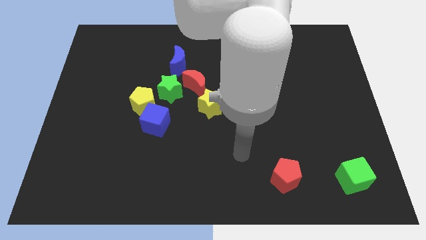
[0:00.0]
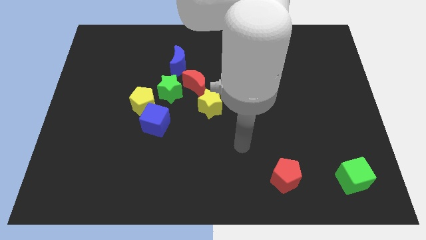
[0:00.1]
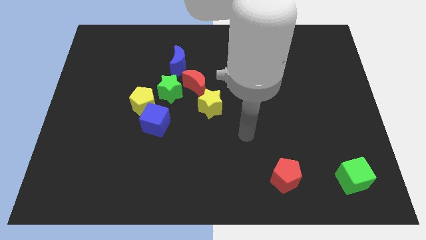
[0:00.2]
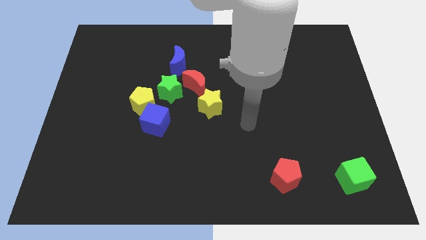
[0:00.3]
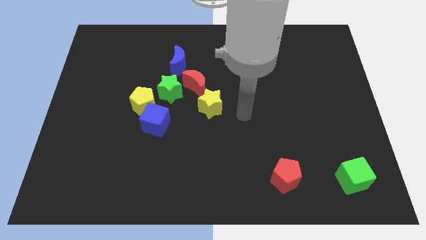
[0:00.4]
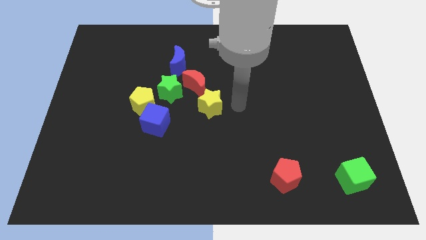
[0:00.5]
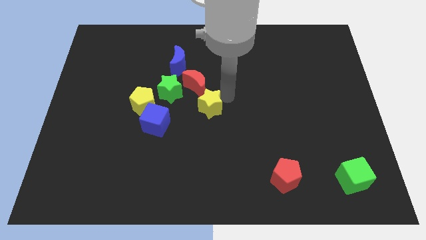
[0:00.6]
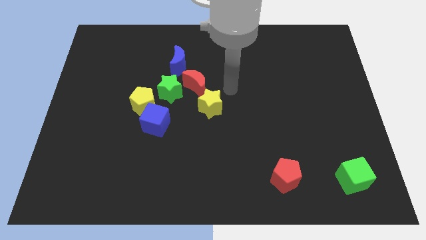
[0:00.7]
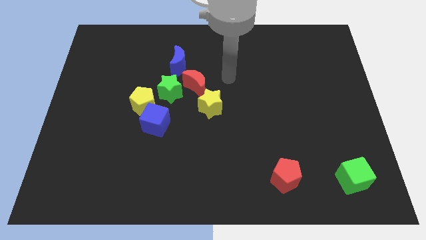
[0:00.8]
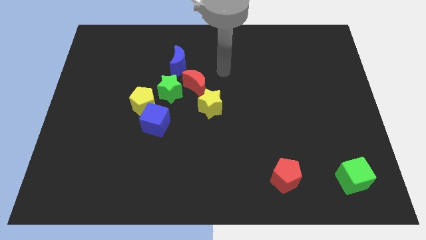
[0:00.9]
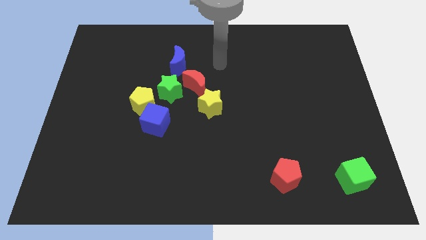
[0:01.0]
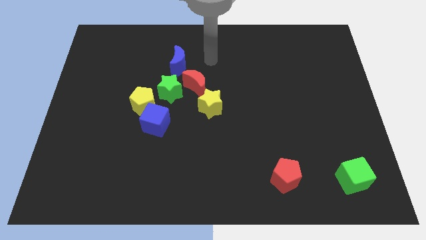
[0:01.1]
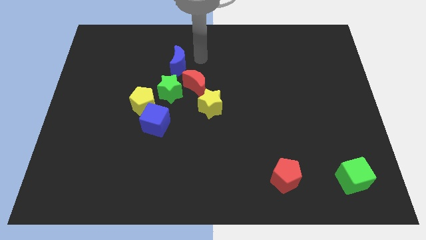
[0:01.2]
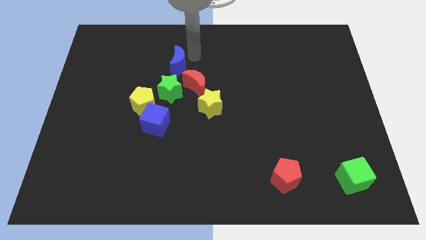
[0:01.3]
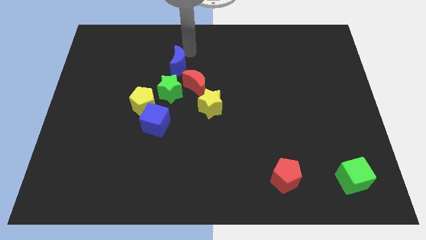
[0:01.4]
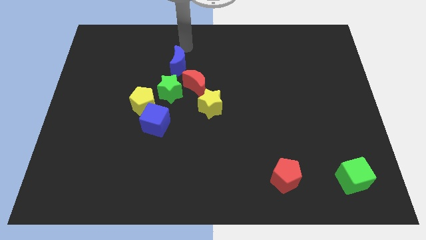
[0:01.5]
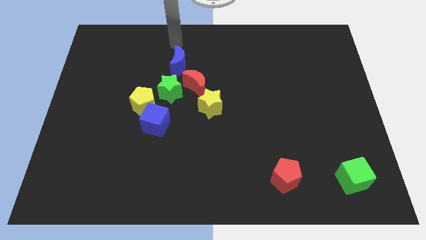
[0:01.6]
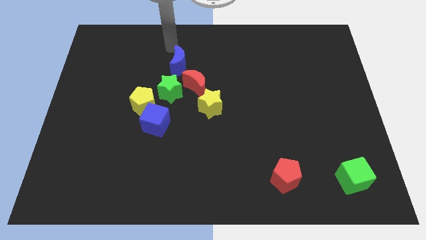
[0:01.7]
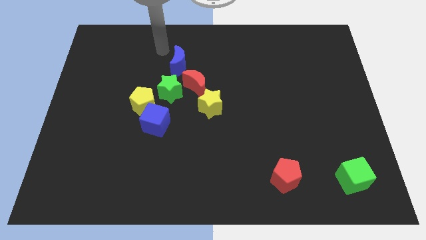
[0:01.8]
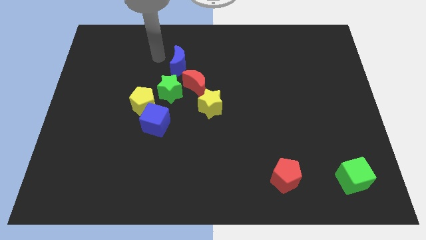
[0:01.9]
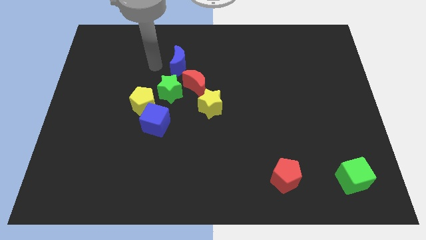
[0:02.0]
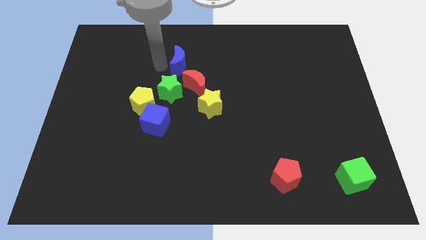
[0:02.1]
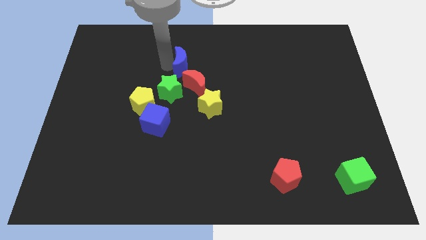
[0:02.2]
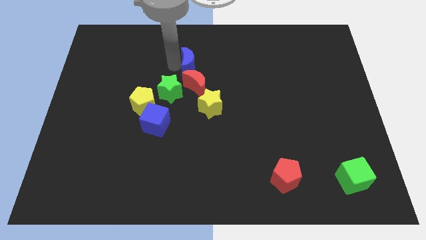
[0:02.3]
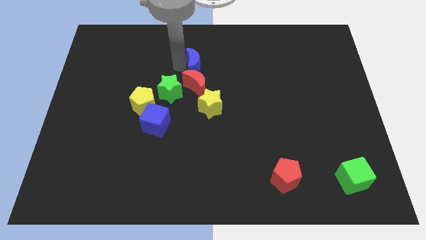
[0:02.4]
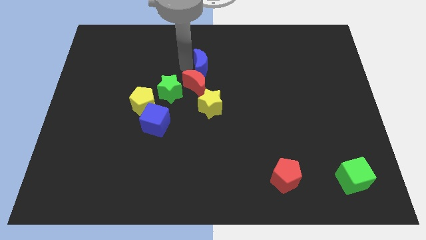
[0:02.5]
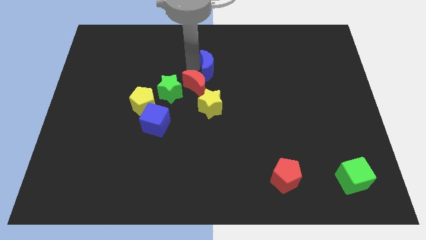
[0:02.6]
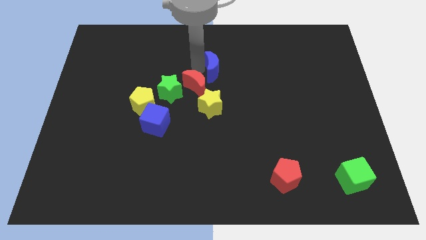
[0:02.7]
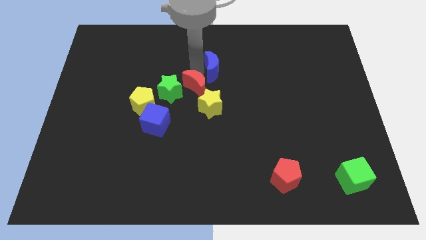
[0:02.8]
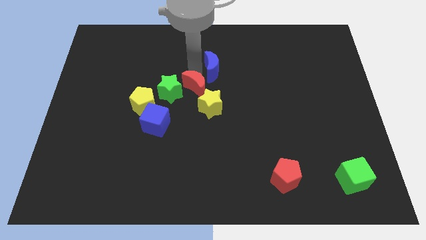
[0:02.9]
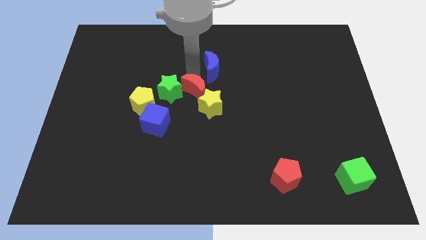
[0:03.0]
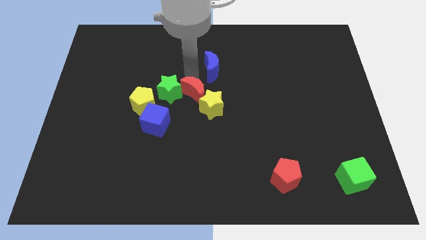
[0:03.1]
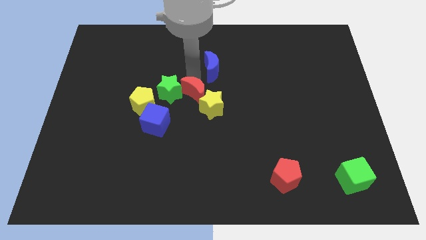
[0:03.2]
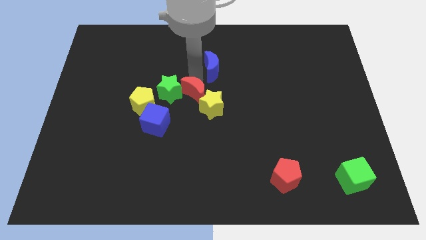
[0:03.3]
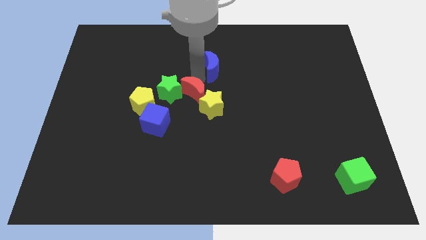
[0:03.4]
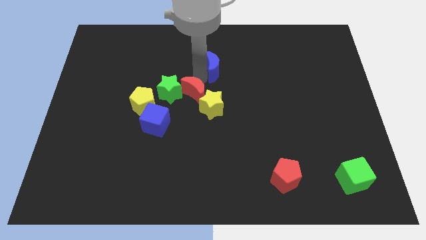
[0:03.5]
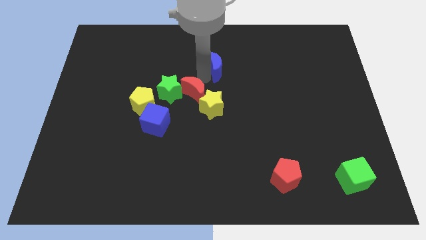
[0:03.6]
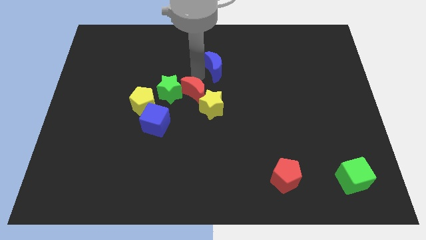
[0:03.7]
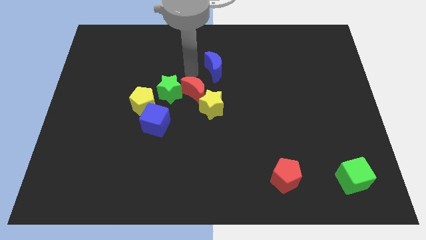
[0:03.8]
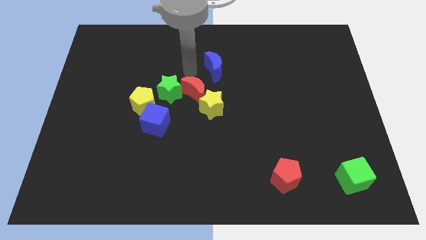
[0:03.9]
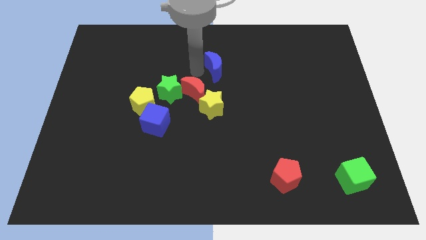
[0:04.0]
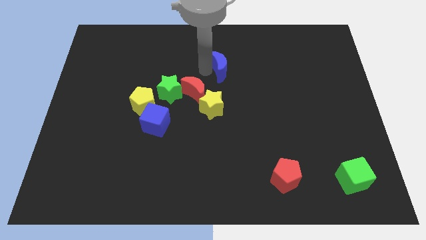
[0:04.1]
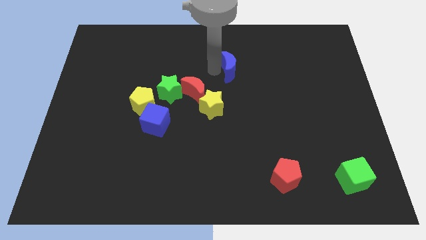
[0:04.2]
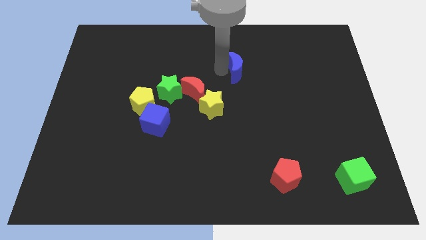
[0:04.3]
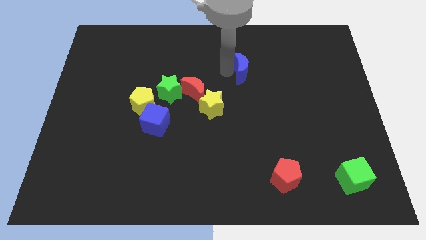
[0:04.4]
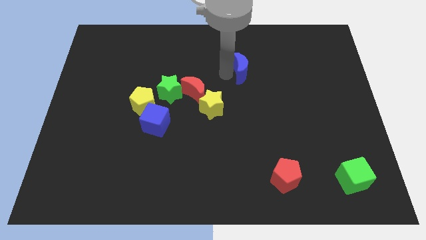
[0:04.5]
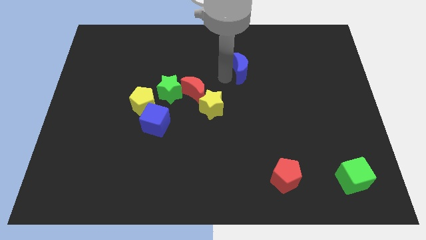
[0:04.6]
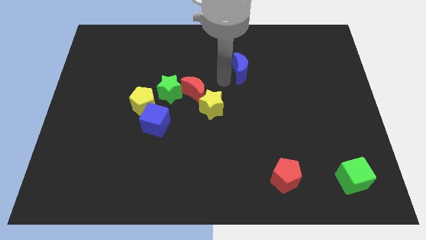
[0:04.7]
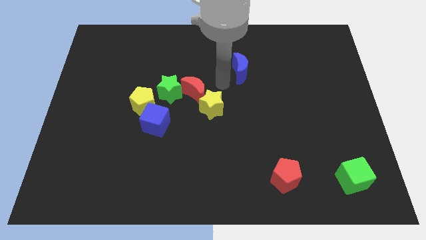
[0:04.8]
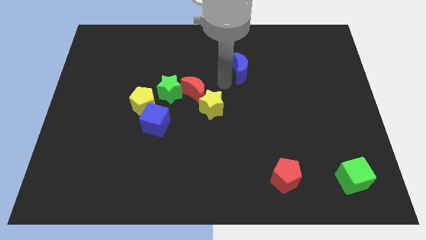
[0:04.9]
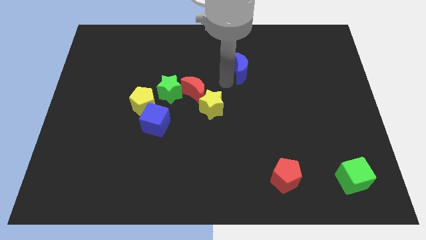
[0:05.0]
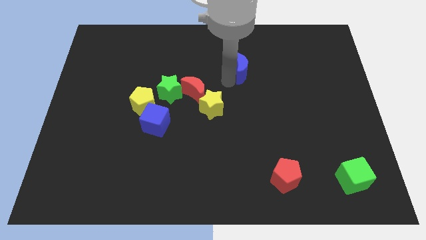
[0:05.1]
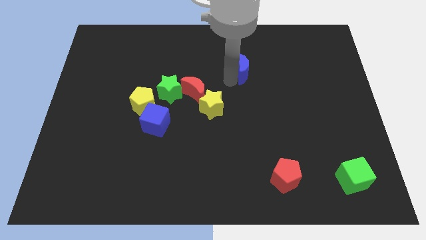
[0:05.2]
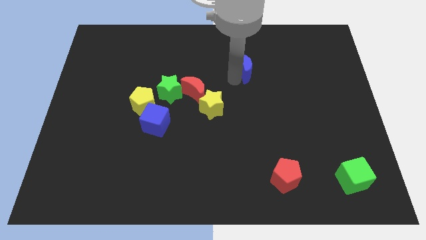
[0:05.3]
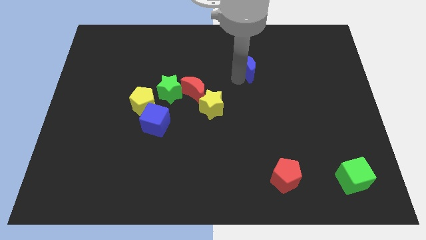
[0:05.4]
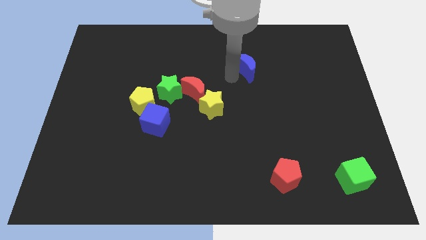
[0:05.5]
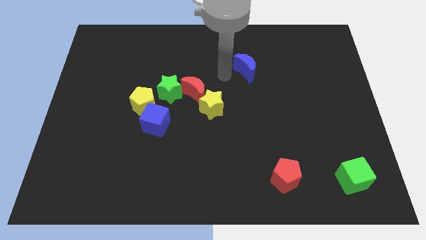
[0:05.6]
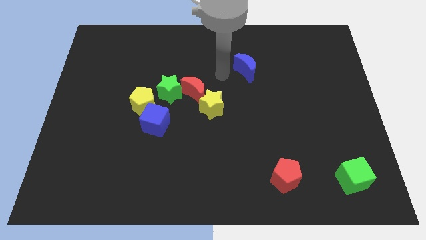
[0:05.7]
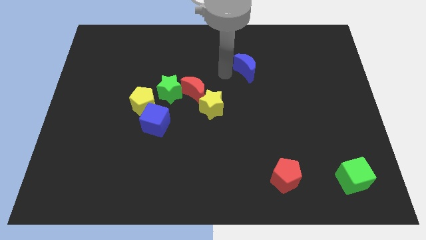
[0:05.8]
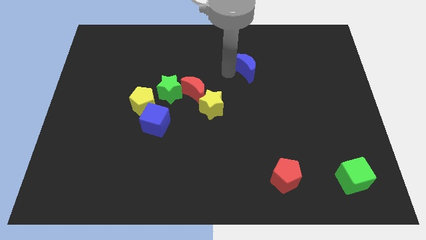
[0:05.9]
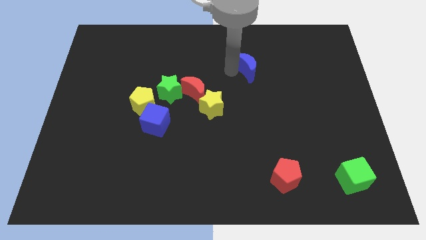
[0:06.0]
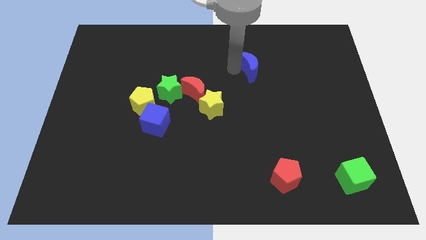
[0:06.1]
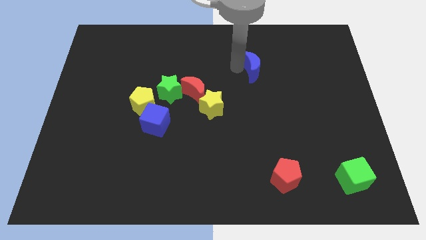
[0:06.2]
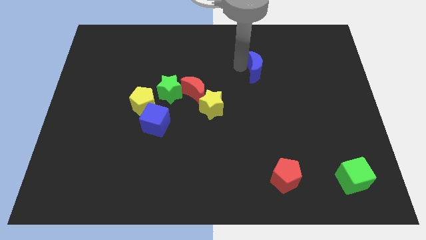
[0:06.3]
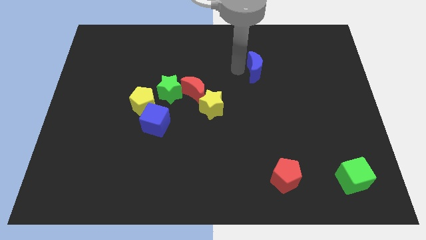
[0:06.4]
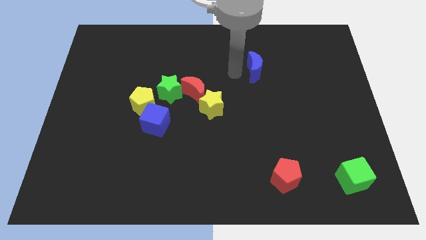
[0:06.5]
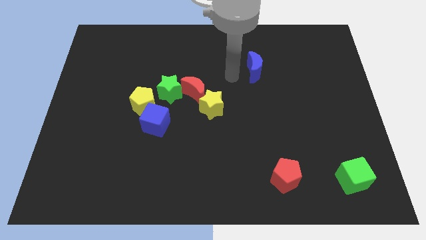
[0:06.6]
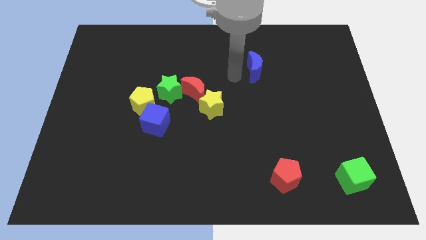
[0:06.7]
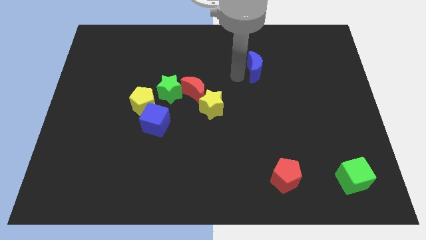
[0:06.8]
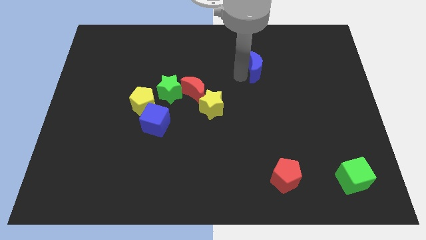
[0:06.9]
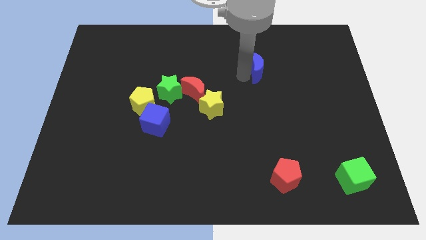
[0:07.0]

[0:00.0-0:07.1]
slide the blue moon to the right

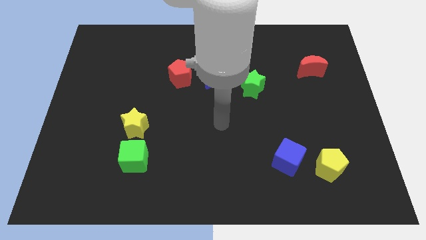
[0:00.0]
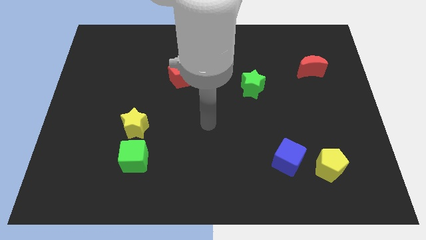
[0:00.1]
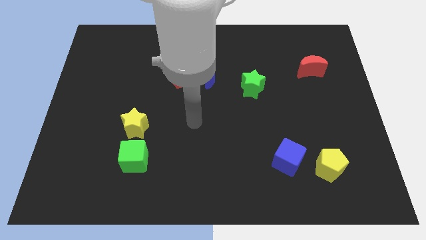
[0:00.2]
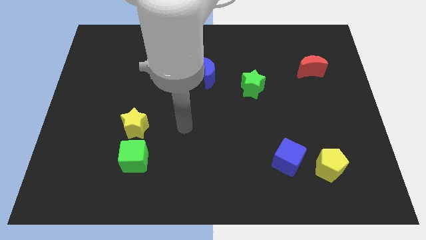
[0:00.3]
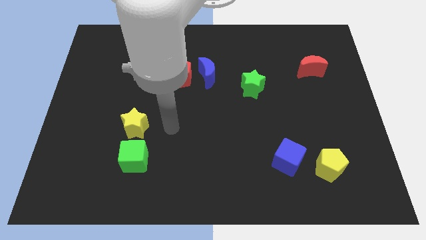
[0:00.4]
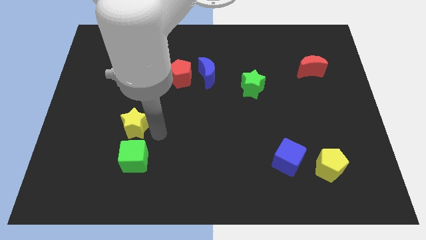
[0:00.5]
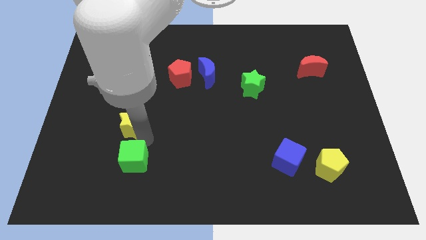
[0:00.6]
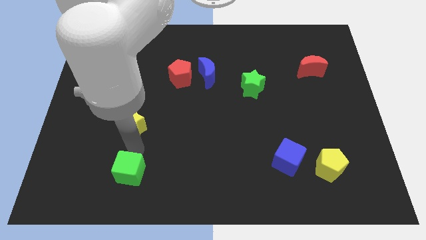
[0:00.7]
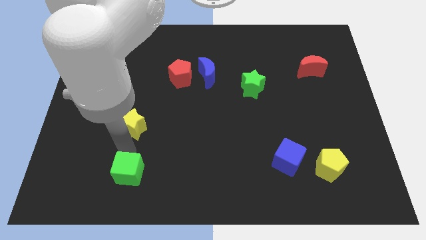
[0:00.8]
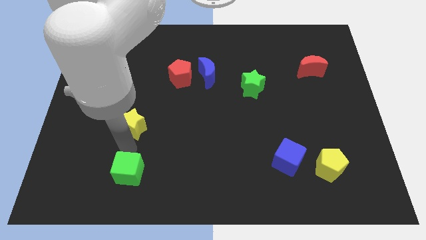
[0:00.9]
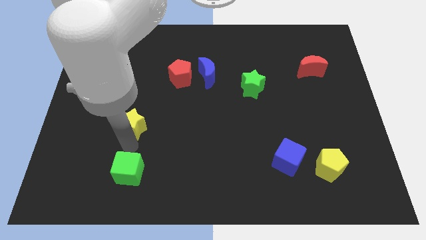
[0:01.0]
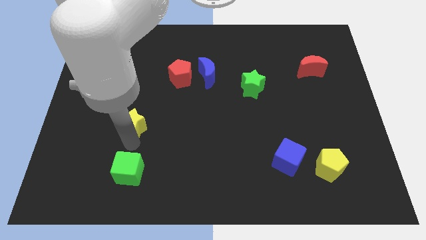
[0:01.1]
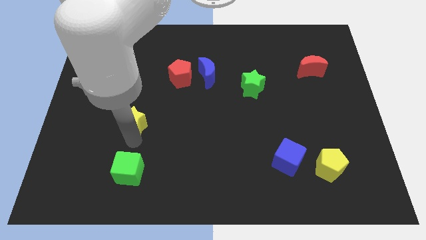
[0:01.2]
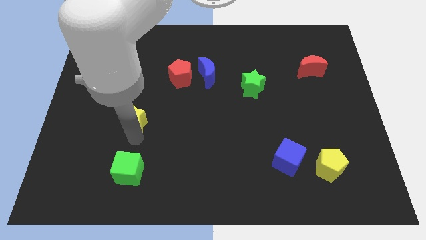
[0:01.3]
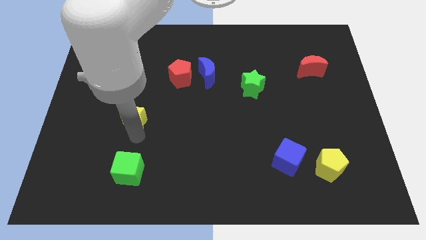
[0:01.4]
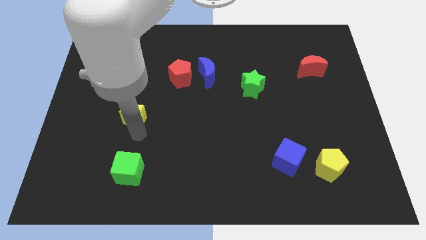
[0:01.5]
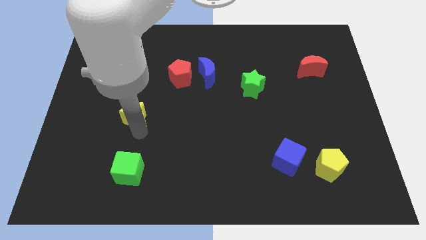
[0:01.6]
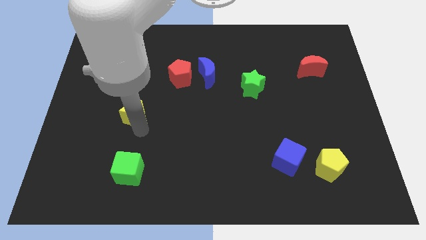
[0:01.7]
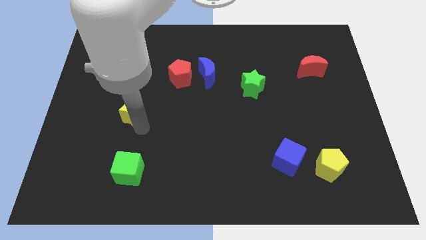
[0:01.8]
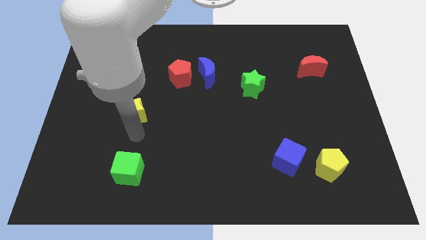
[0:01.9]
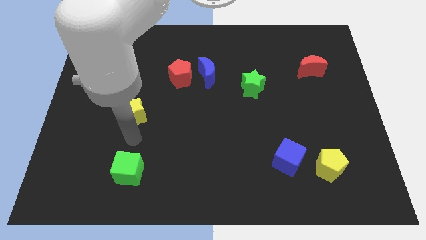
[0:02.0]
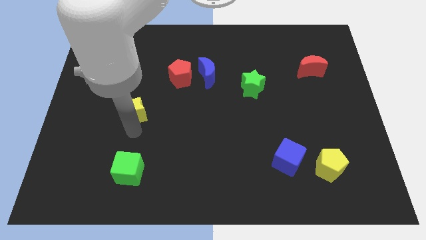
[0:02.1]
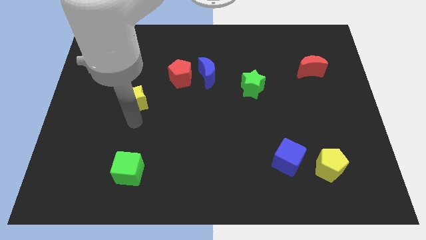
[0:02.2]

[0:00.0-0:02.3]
slightly push the yellow star upwards
